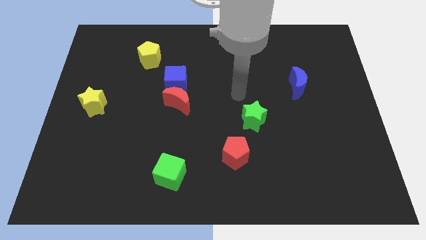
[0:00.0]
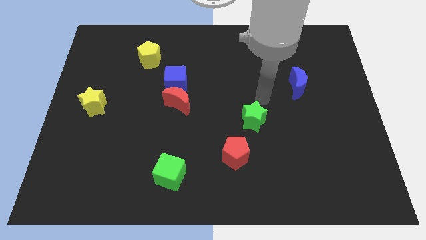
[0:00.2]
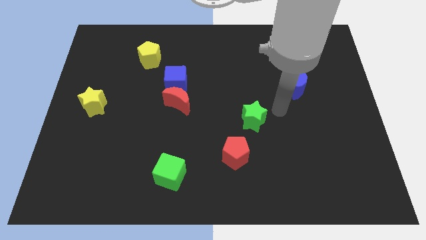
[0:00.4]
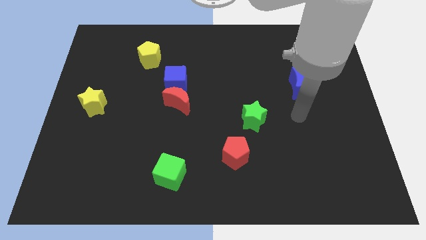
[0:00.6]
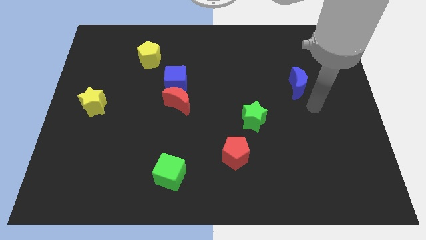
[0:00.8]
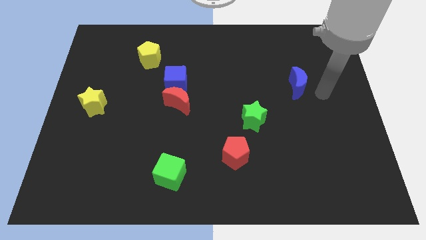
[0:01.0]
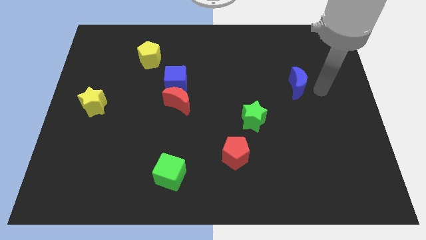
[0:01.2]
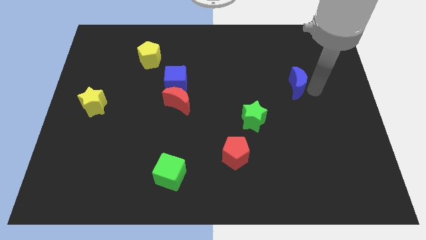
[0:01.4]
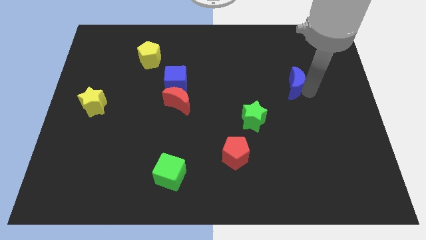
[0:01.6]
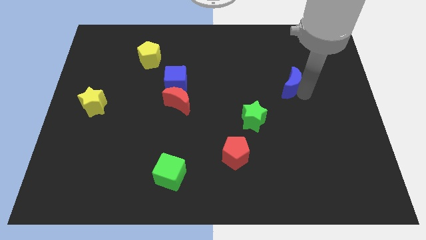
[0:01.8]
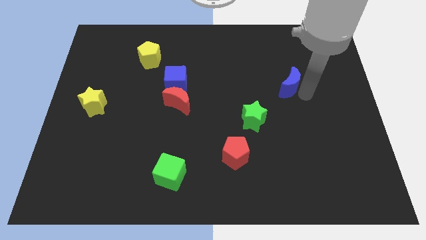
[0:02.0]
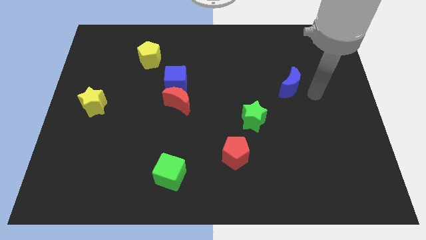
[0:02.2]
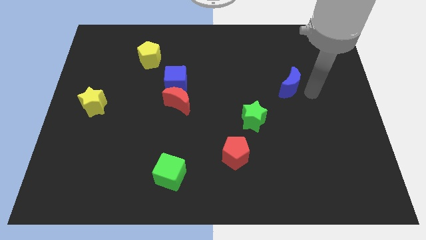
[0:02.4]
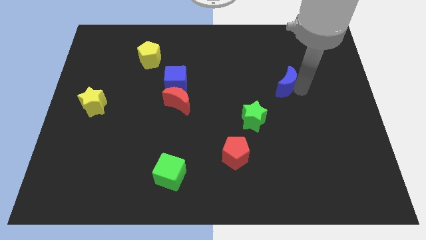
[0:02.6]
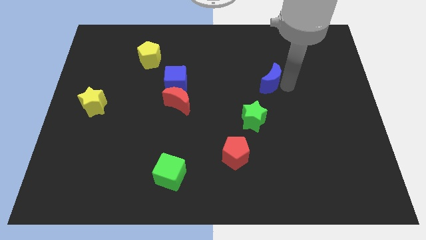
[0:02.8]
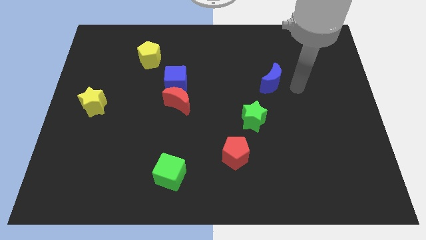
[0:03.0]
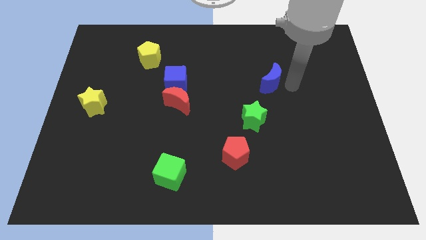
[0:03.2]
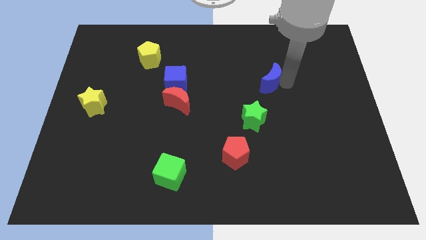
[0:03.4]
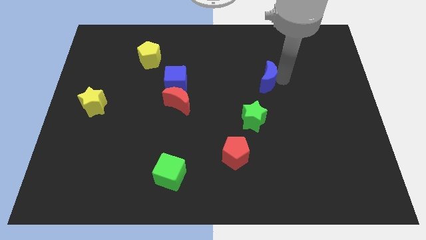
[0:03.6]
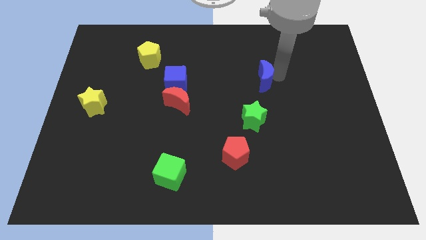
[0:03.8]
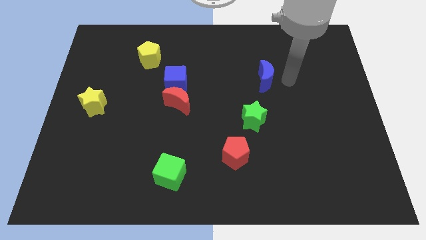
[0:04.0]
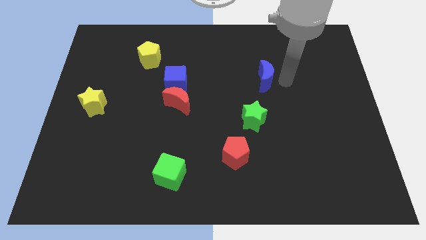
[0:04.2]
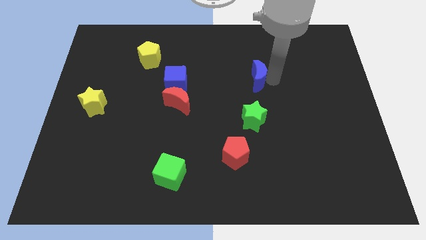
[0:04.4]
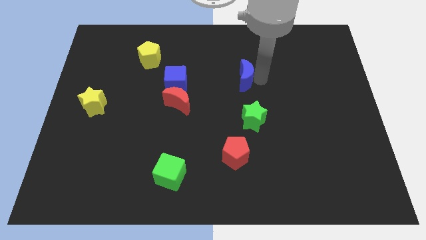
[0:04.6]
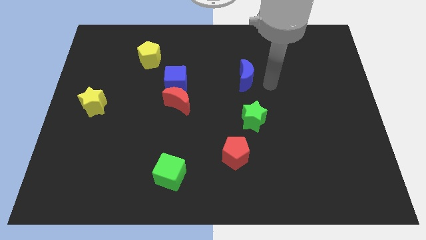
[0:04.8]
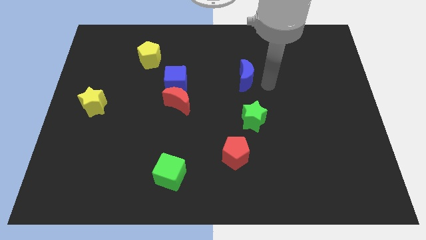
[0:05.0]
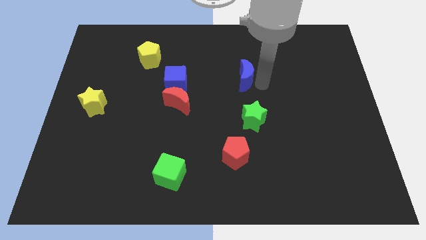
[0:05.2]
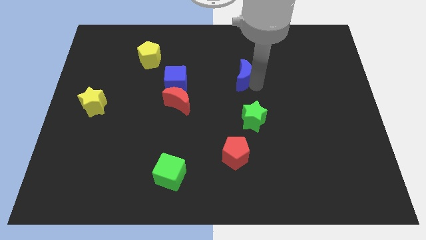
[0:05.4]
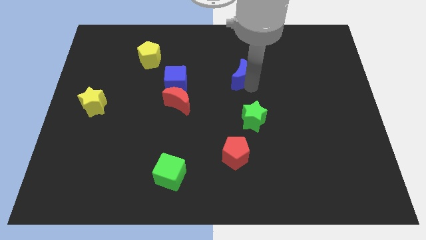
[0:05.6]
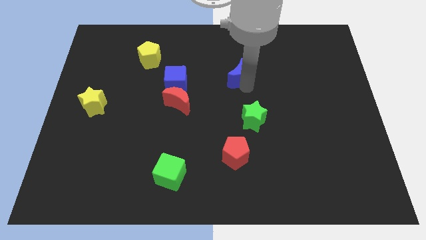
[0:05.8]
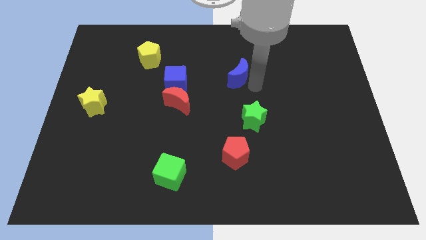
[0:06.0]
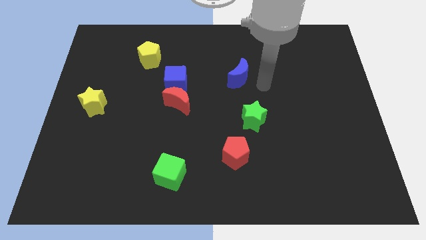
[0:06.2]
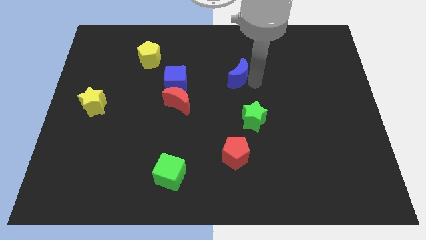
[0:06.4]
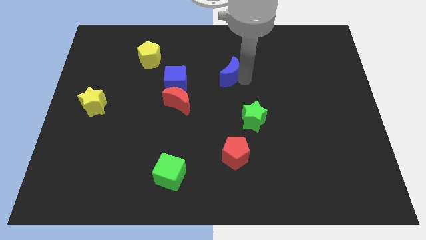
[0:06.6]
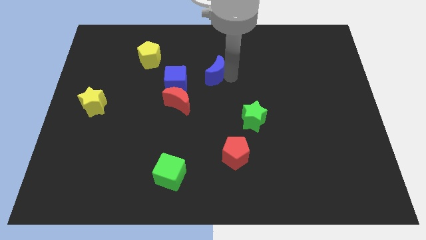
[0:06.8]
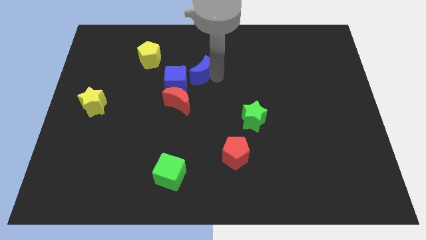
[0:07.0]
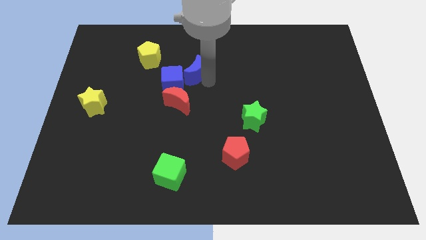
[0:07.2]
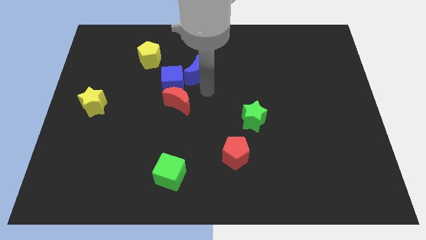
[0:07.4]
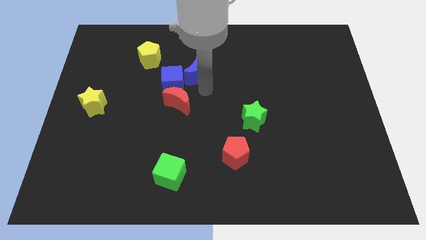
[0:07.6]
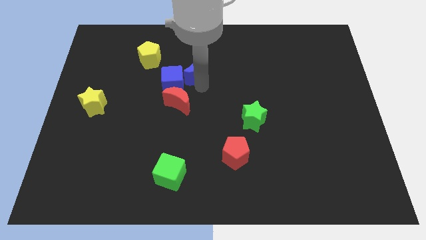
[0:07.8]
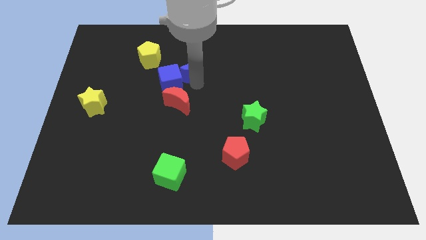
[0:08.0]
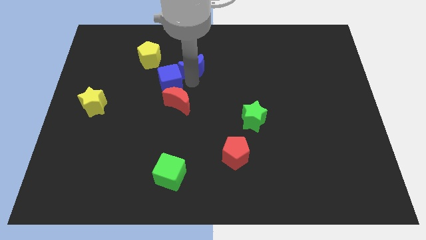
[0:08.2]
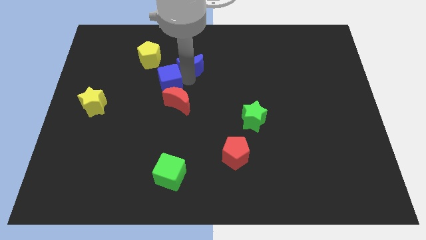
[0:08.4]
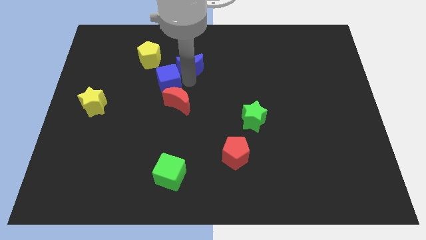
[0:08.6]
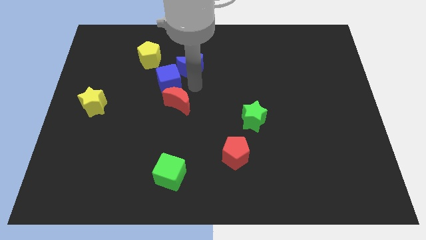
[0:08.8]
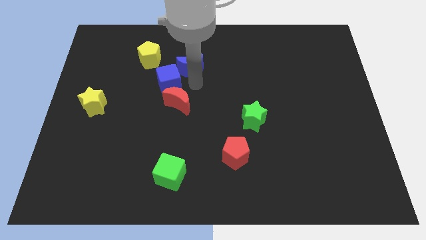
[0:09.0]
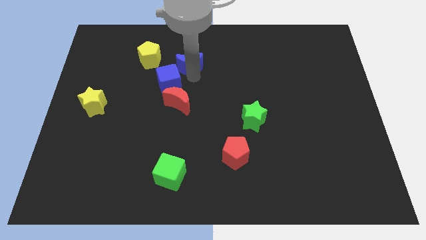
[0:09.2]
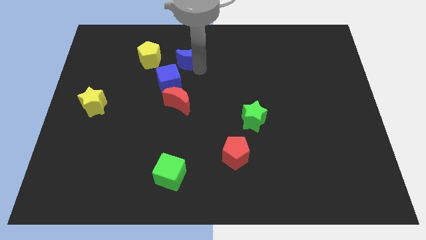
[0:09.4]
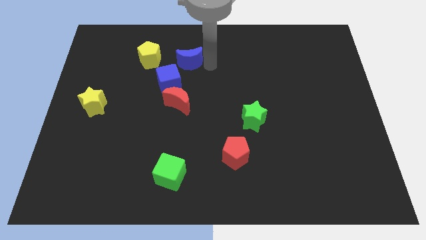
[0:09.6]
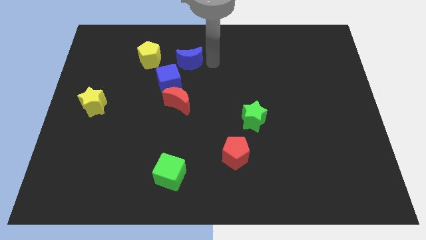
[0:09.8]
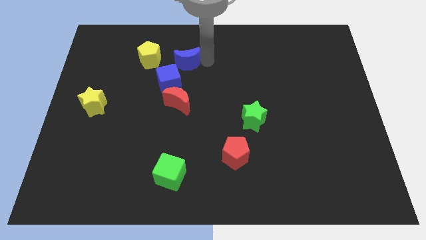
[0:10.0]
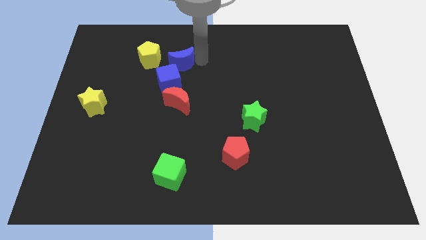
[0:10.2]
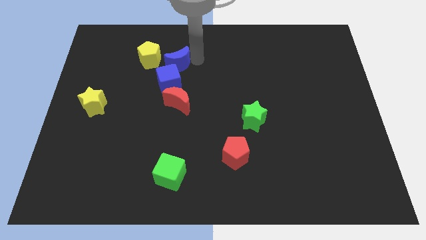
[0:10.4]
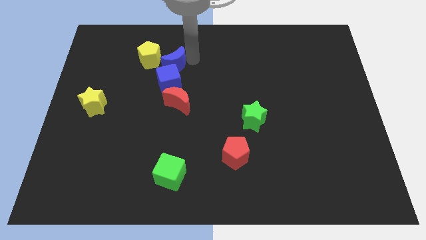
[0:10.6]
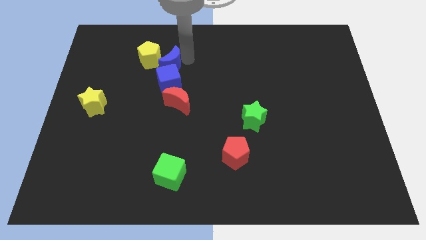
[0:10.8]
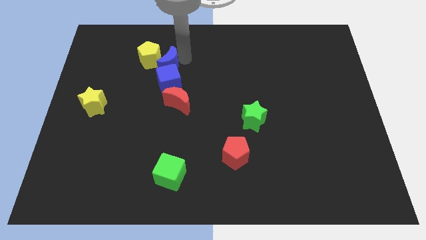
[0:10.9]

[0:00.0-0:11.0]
put the blue moon close to the yellow pentagon

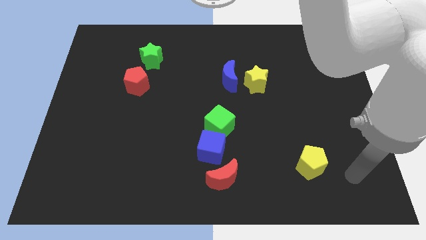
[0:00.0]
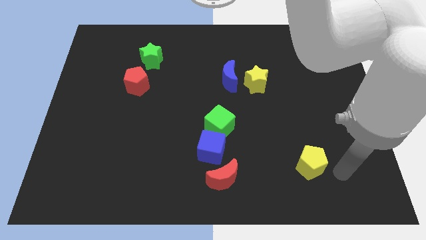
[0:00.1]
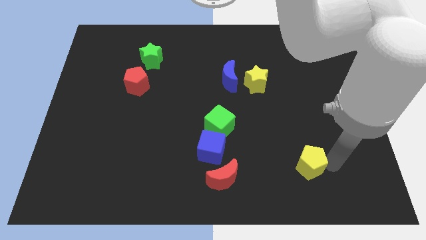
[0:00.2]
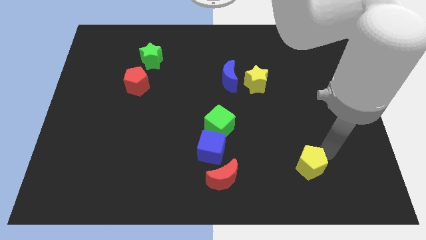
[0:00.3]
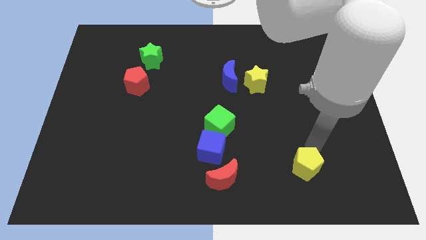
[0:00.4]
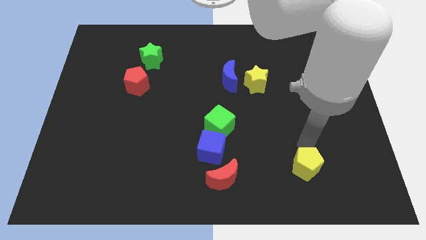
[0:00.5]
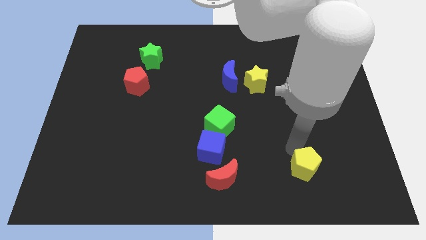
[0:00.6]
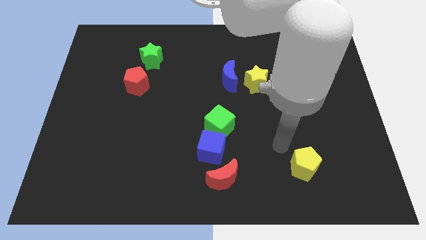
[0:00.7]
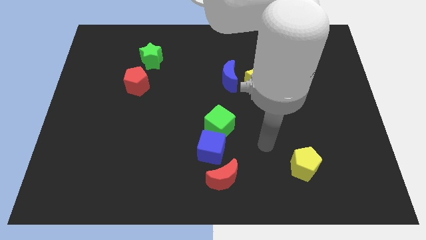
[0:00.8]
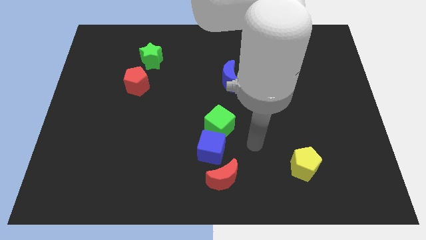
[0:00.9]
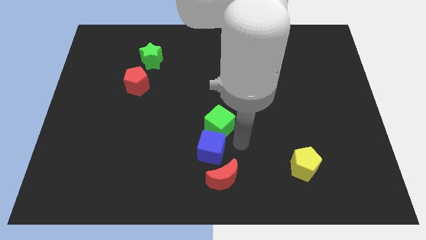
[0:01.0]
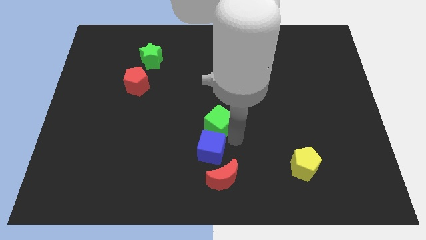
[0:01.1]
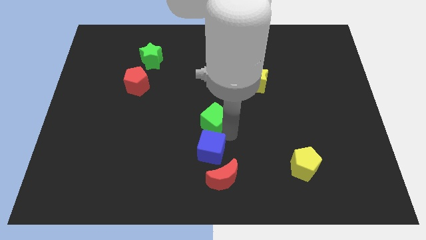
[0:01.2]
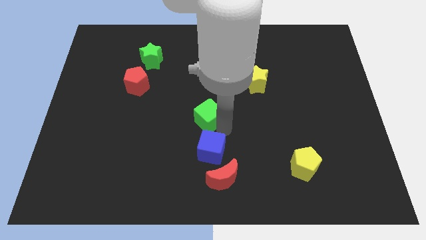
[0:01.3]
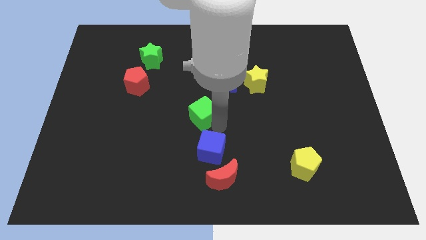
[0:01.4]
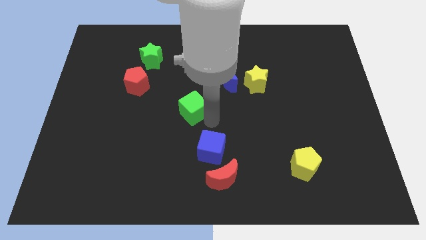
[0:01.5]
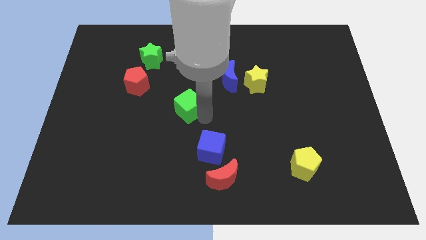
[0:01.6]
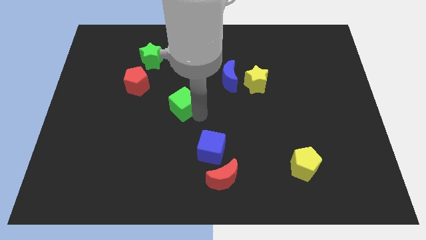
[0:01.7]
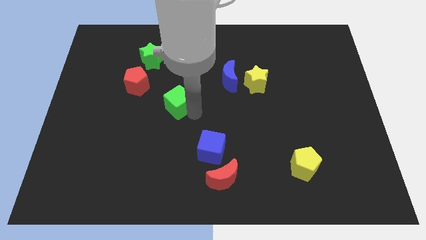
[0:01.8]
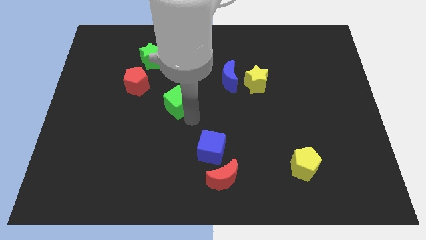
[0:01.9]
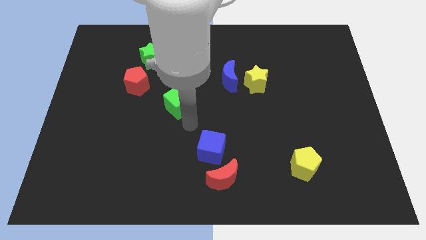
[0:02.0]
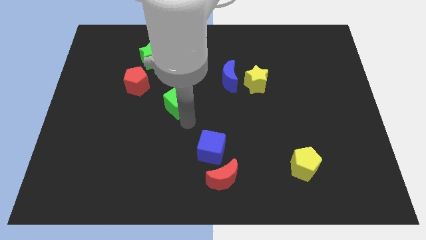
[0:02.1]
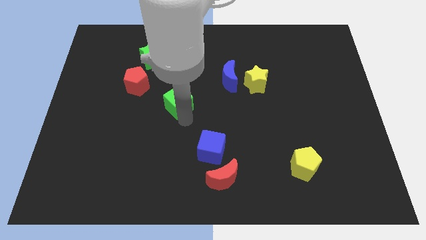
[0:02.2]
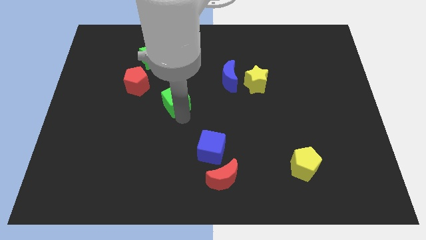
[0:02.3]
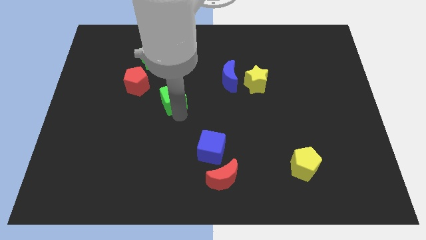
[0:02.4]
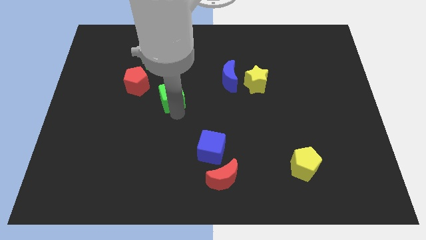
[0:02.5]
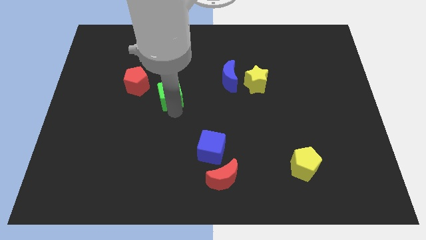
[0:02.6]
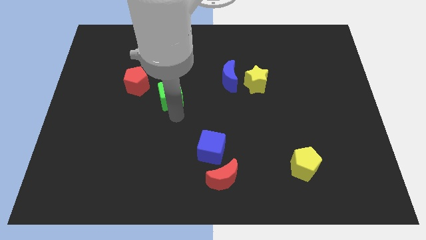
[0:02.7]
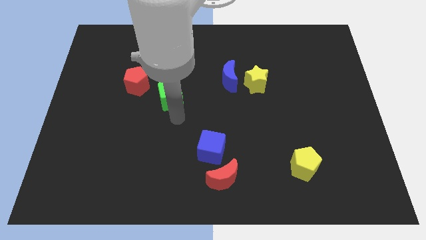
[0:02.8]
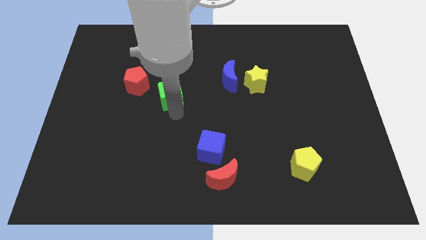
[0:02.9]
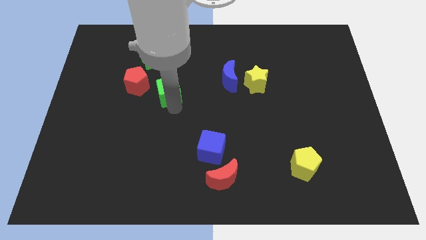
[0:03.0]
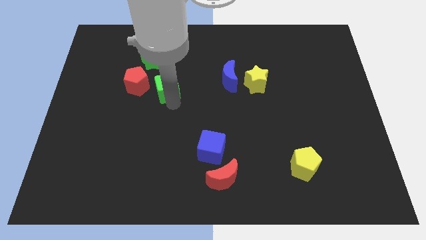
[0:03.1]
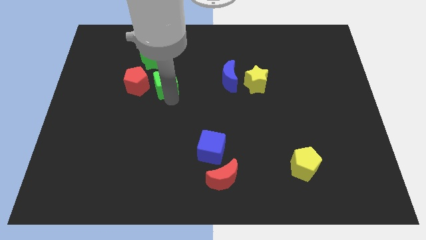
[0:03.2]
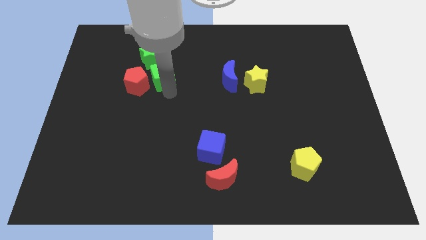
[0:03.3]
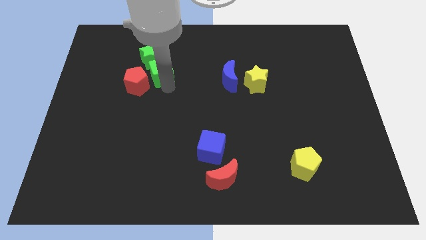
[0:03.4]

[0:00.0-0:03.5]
move the green cube next to the green star
